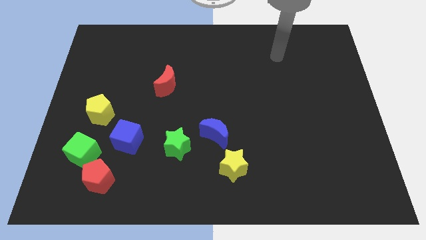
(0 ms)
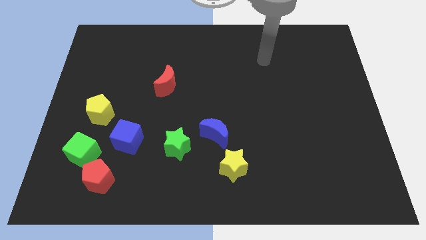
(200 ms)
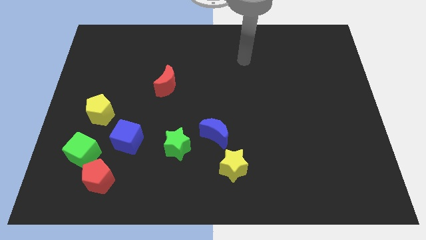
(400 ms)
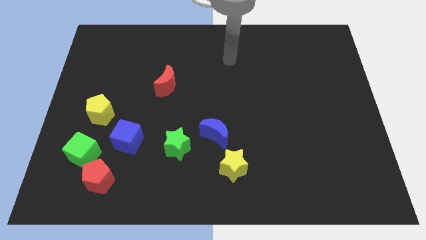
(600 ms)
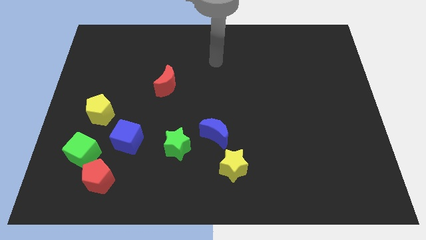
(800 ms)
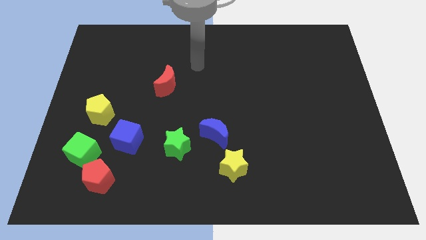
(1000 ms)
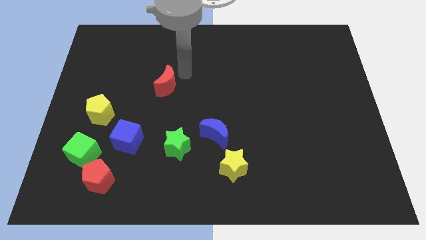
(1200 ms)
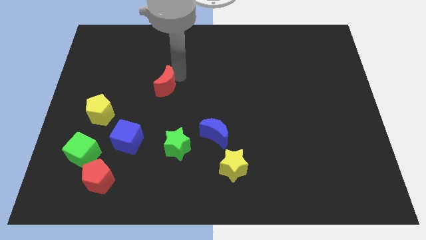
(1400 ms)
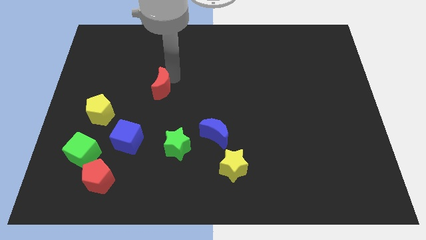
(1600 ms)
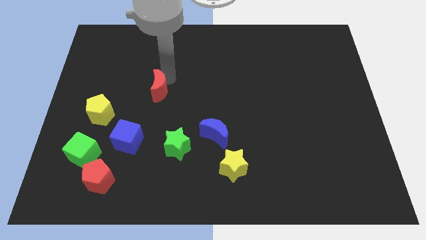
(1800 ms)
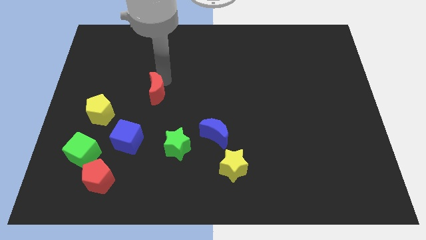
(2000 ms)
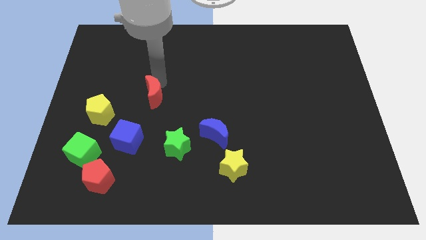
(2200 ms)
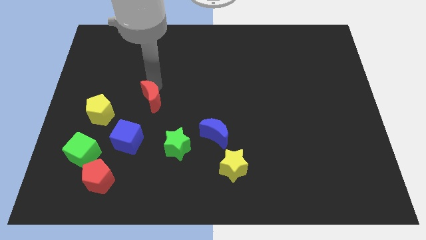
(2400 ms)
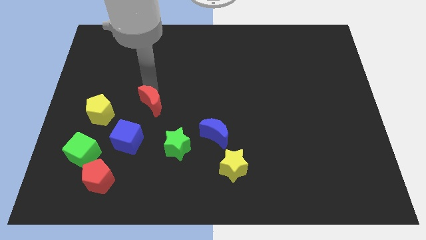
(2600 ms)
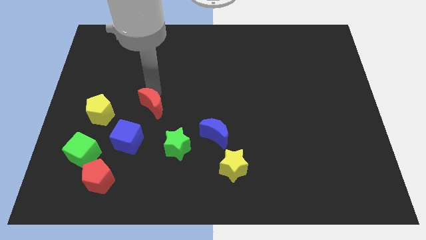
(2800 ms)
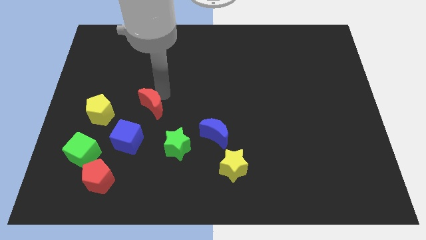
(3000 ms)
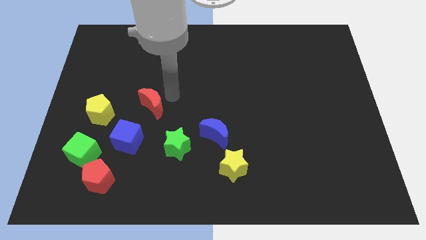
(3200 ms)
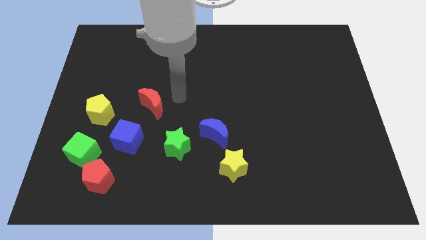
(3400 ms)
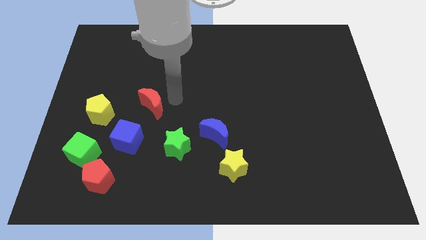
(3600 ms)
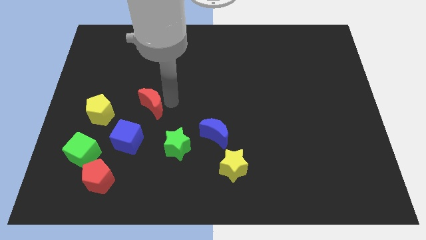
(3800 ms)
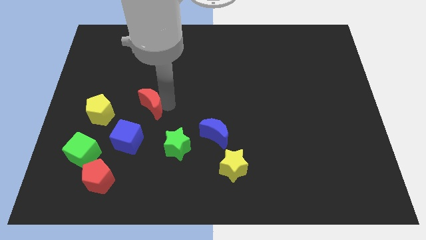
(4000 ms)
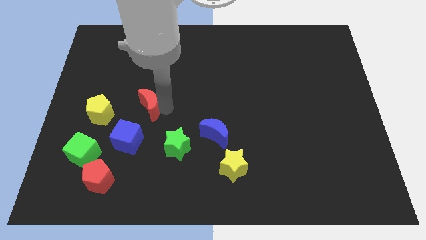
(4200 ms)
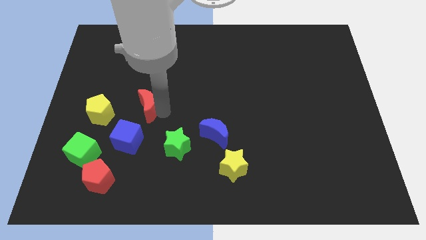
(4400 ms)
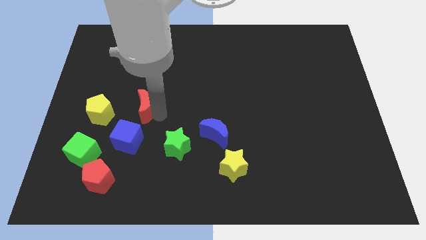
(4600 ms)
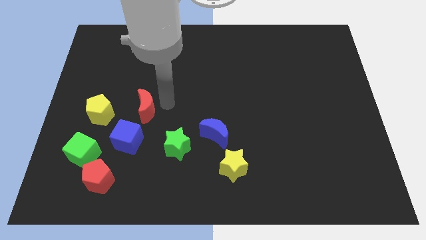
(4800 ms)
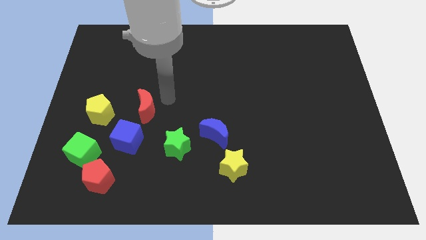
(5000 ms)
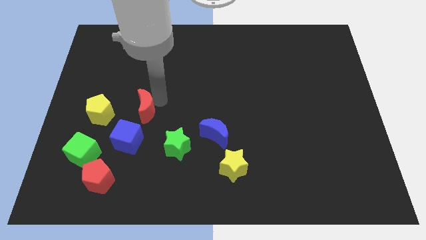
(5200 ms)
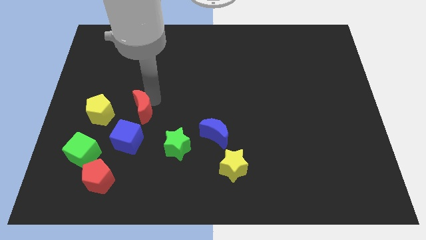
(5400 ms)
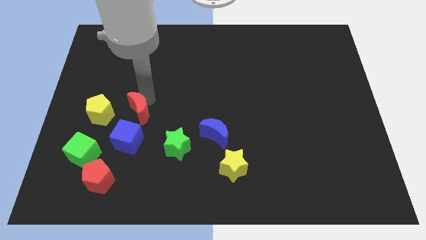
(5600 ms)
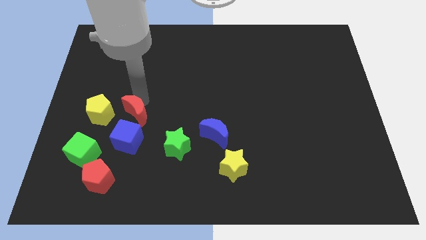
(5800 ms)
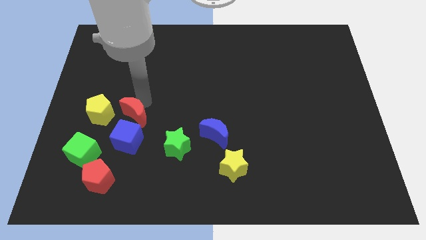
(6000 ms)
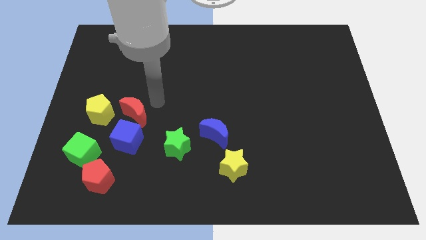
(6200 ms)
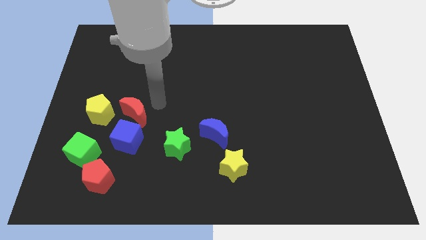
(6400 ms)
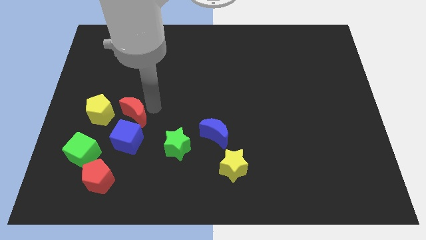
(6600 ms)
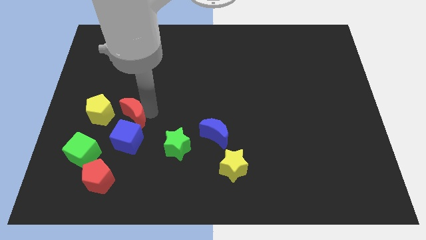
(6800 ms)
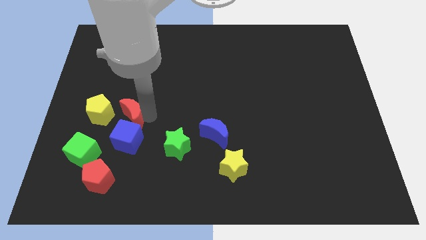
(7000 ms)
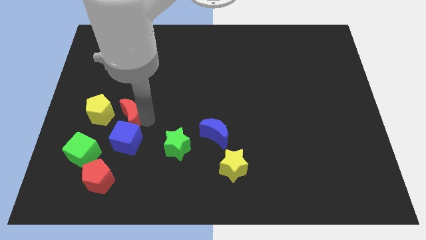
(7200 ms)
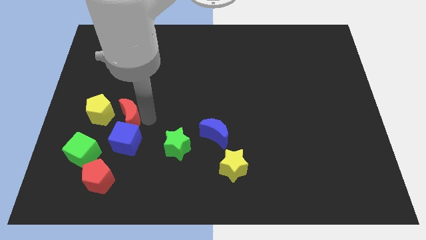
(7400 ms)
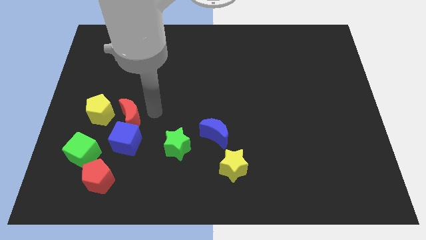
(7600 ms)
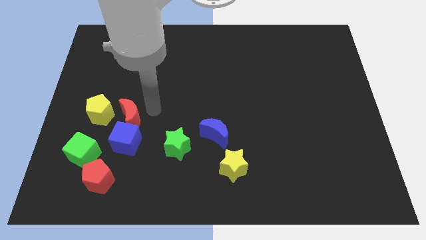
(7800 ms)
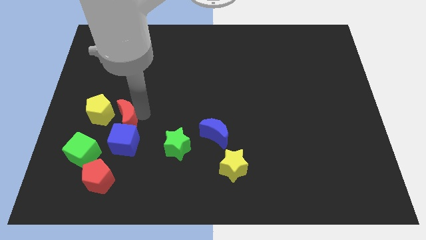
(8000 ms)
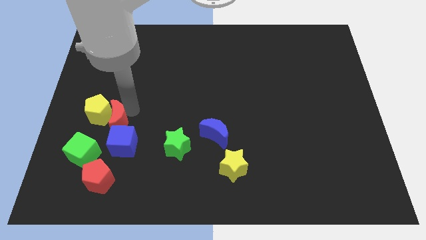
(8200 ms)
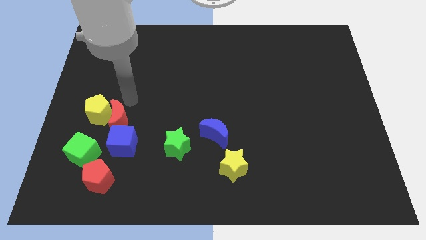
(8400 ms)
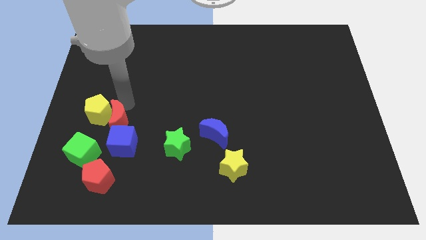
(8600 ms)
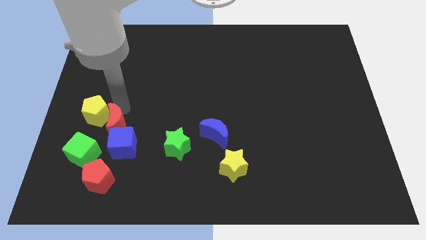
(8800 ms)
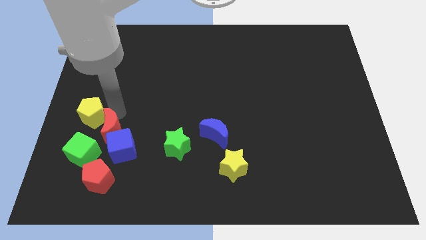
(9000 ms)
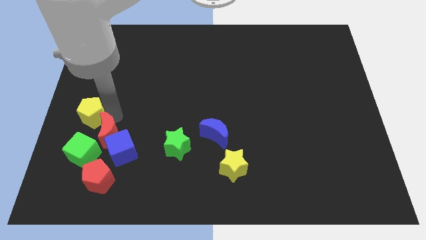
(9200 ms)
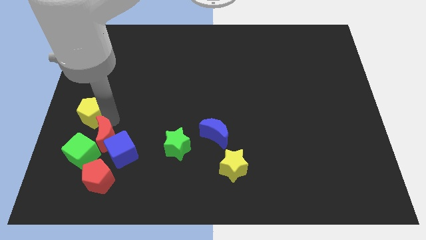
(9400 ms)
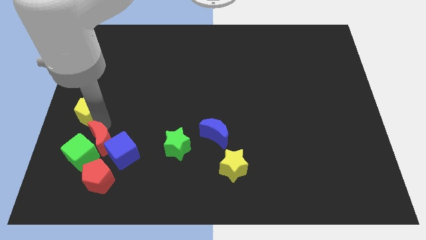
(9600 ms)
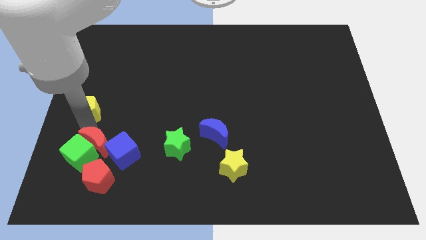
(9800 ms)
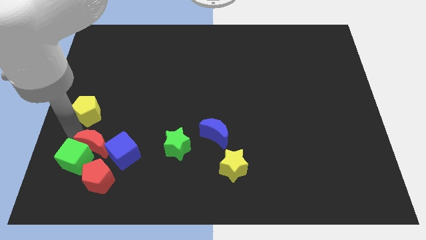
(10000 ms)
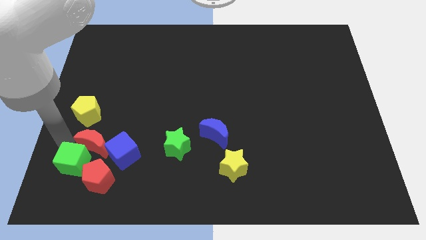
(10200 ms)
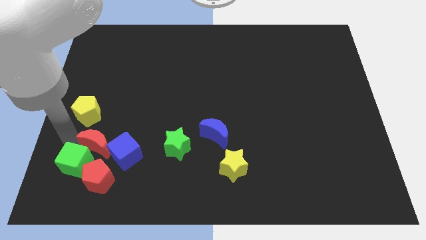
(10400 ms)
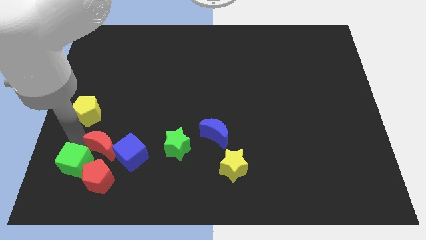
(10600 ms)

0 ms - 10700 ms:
slide the red moon to the left side of the green star
